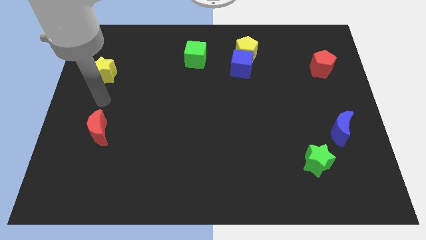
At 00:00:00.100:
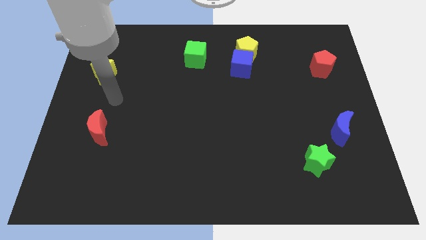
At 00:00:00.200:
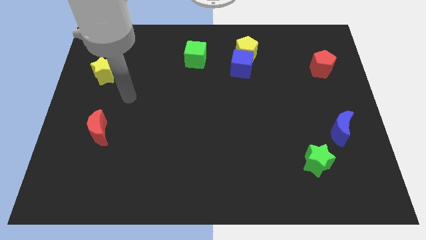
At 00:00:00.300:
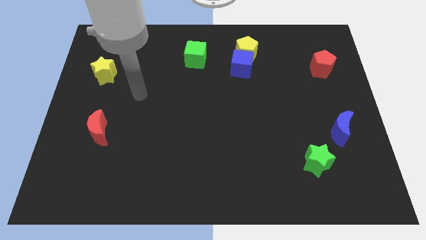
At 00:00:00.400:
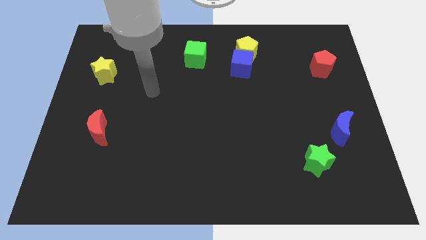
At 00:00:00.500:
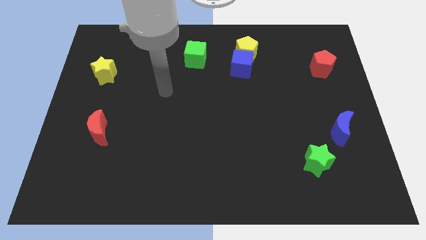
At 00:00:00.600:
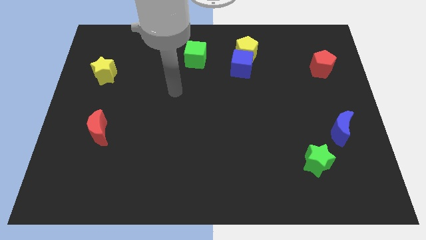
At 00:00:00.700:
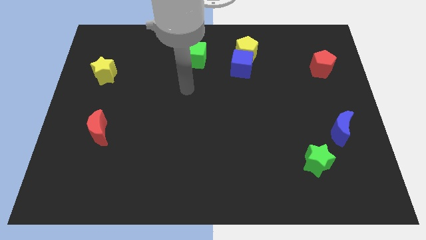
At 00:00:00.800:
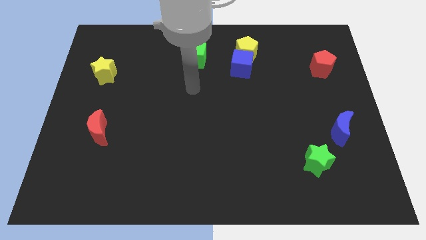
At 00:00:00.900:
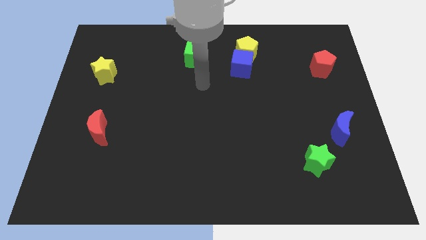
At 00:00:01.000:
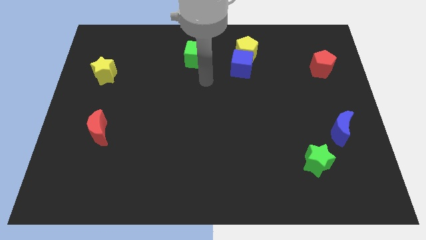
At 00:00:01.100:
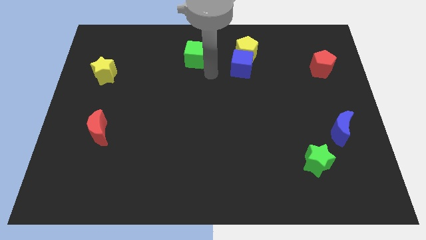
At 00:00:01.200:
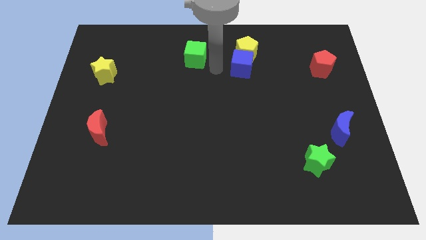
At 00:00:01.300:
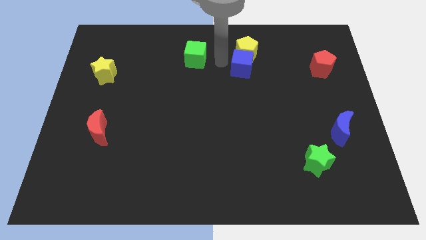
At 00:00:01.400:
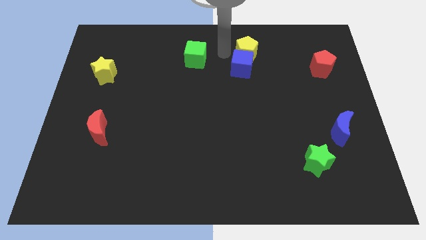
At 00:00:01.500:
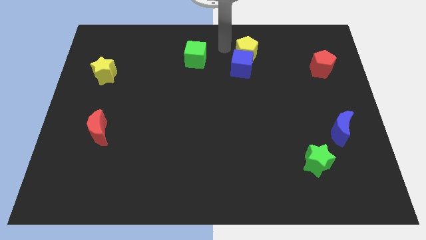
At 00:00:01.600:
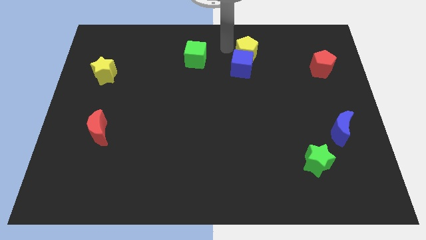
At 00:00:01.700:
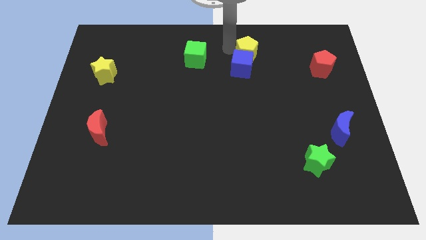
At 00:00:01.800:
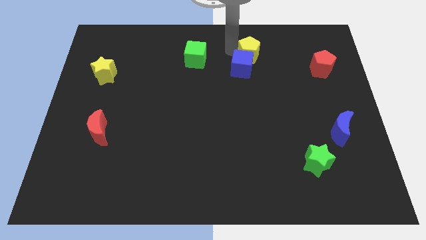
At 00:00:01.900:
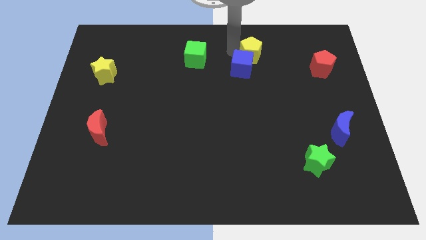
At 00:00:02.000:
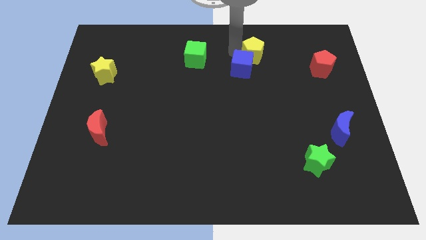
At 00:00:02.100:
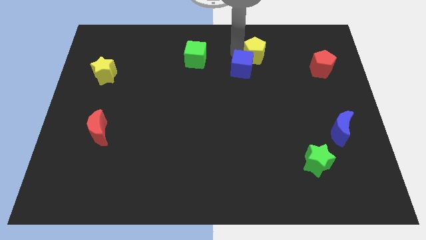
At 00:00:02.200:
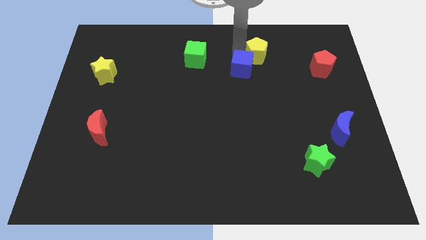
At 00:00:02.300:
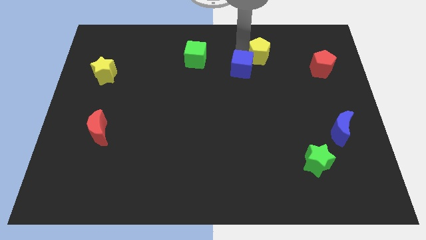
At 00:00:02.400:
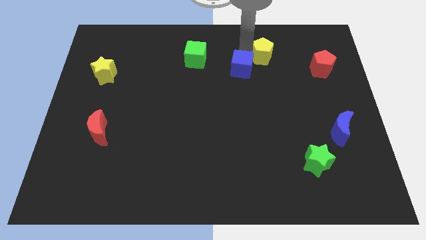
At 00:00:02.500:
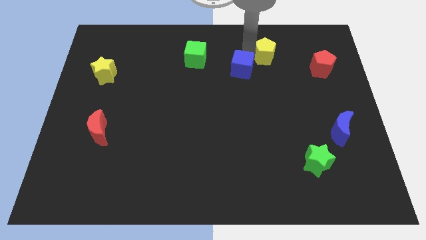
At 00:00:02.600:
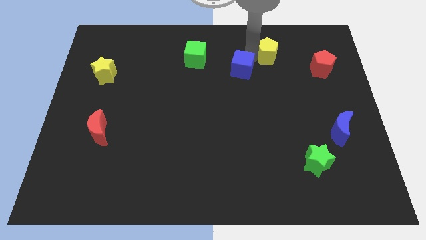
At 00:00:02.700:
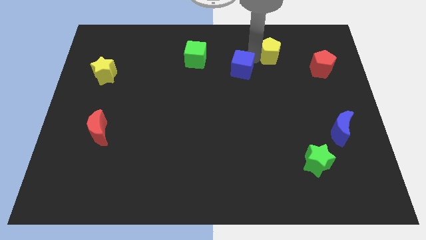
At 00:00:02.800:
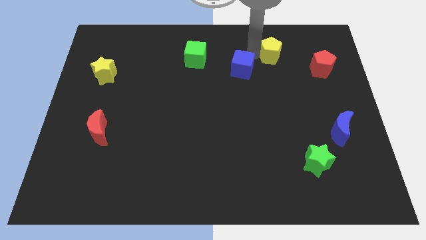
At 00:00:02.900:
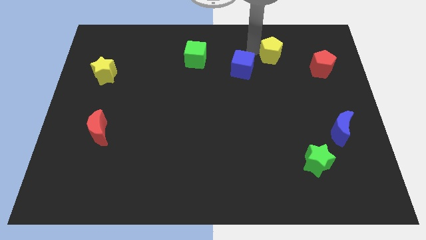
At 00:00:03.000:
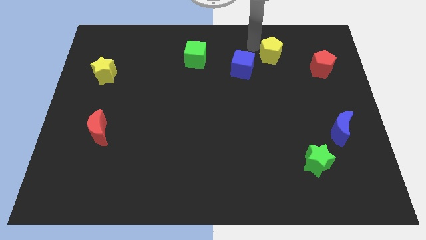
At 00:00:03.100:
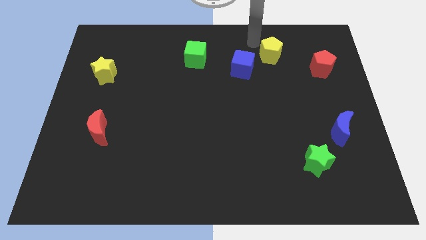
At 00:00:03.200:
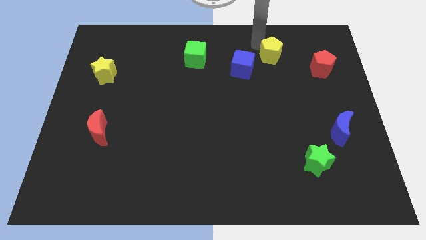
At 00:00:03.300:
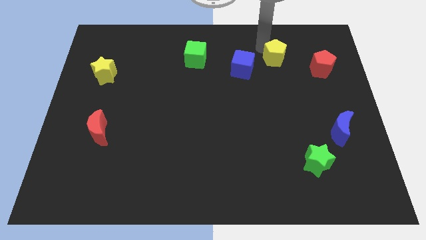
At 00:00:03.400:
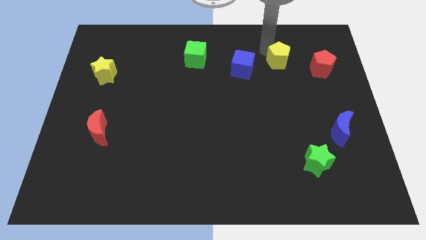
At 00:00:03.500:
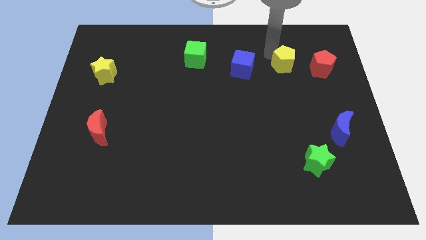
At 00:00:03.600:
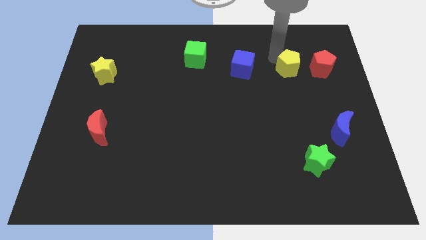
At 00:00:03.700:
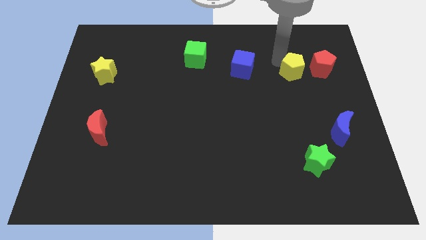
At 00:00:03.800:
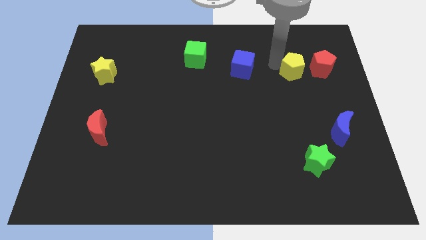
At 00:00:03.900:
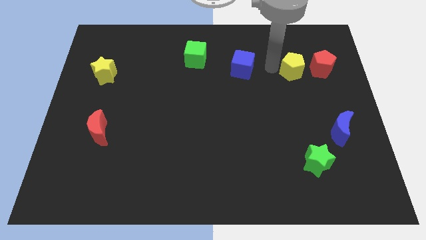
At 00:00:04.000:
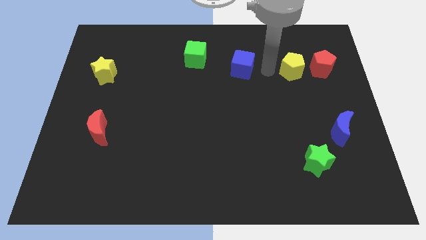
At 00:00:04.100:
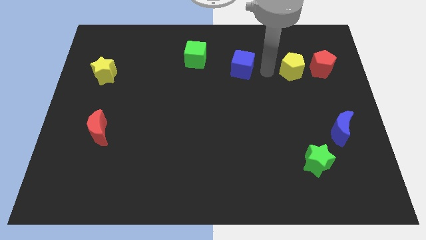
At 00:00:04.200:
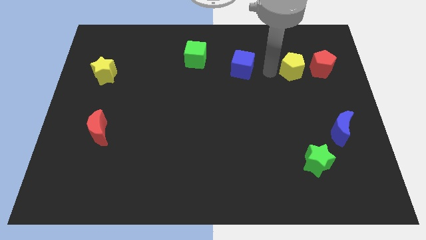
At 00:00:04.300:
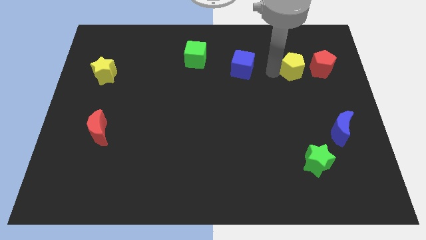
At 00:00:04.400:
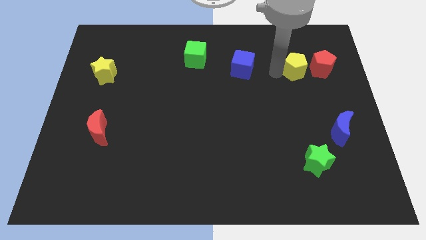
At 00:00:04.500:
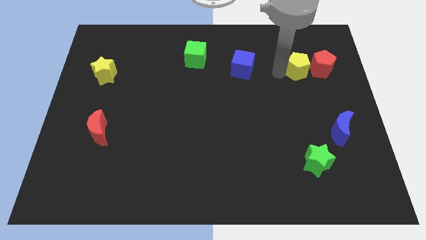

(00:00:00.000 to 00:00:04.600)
put the yellow pentagon to the red pentagon

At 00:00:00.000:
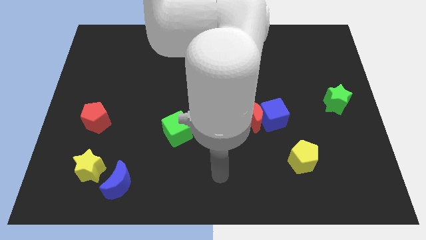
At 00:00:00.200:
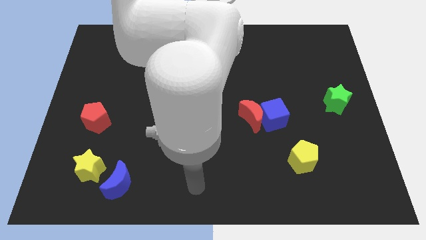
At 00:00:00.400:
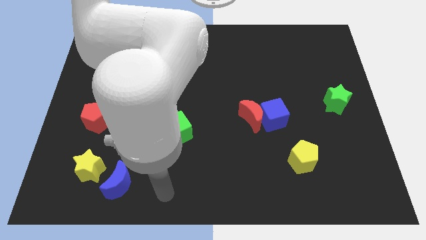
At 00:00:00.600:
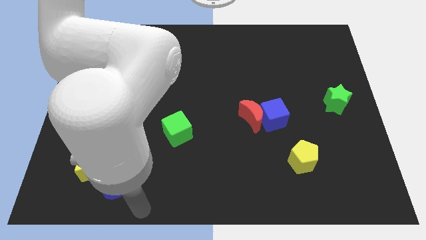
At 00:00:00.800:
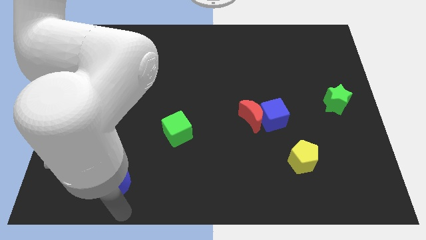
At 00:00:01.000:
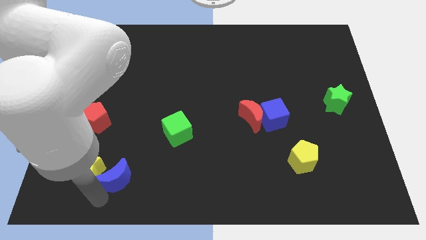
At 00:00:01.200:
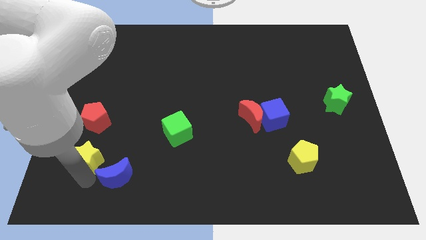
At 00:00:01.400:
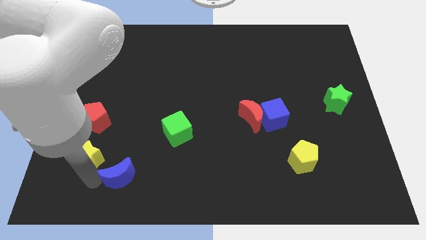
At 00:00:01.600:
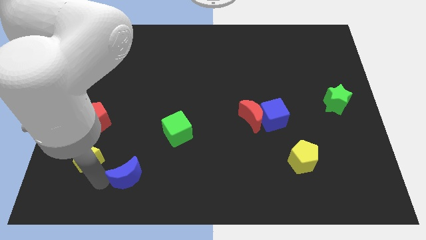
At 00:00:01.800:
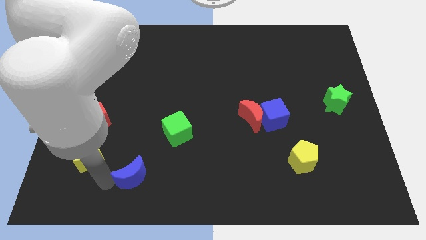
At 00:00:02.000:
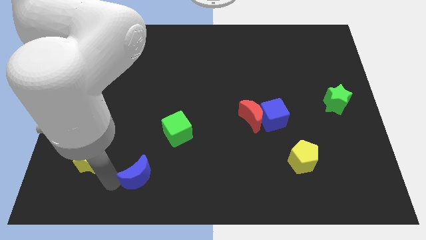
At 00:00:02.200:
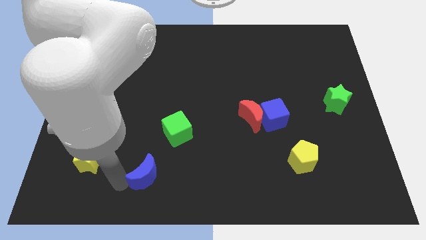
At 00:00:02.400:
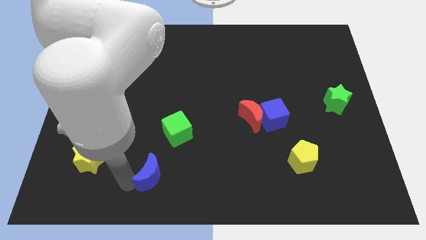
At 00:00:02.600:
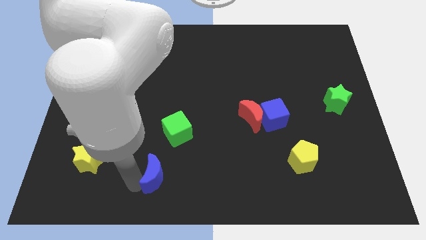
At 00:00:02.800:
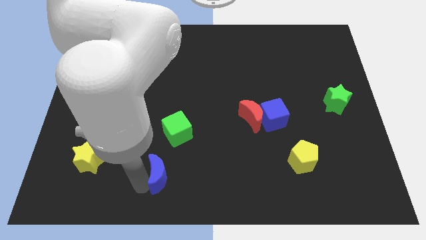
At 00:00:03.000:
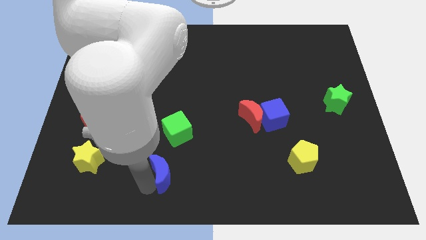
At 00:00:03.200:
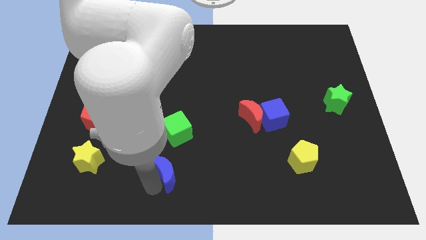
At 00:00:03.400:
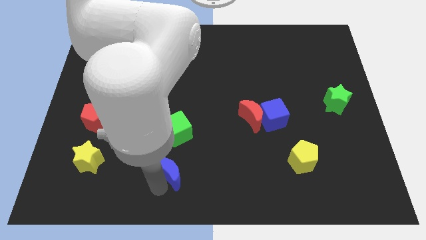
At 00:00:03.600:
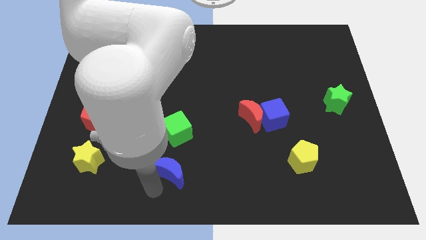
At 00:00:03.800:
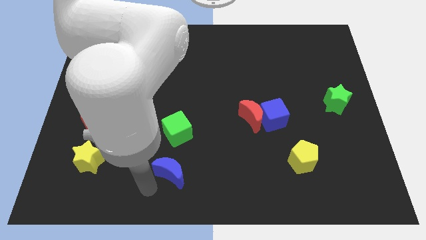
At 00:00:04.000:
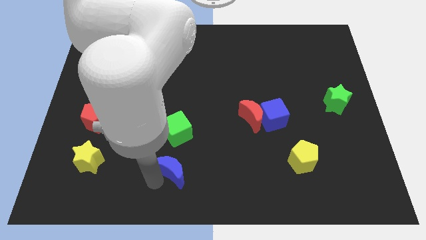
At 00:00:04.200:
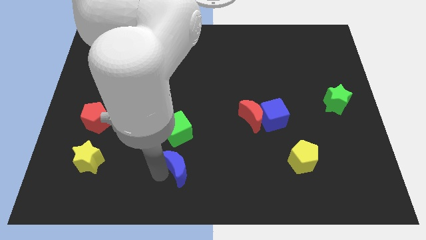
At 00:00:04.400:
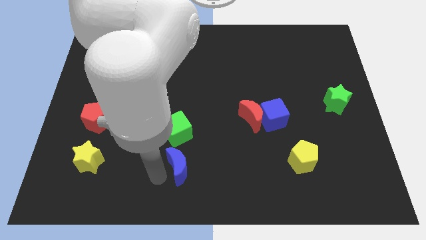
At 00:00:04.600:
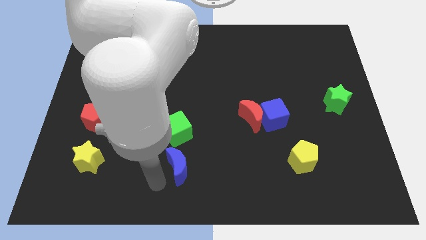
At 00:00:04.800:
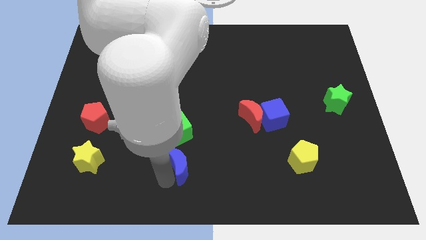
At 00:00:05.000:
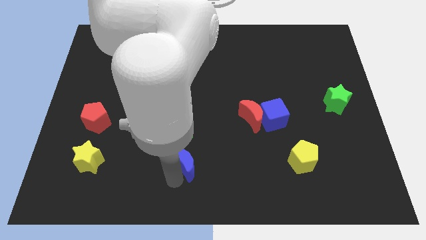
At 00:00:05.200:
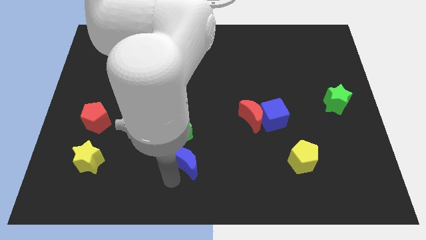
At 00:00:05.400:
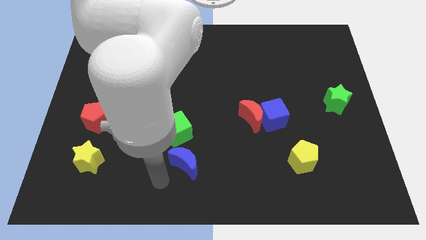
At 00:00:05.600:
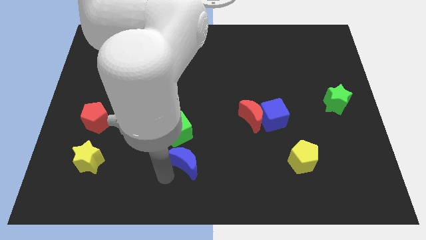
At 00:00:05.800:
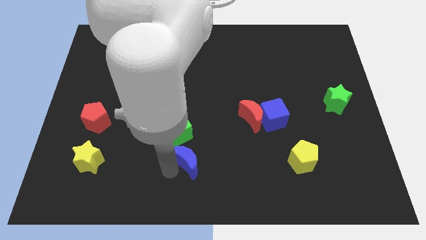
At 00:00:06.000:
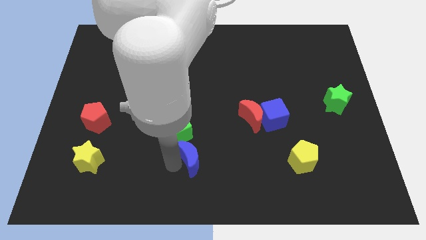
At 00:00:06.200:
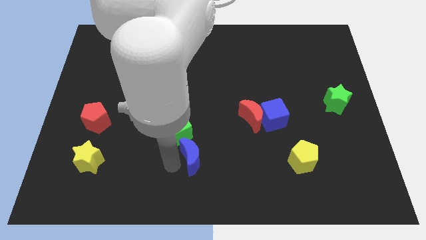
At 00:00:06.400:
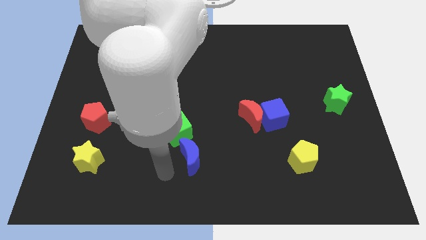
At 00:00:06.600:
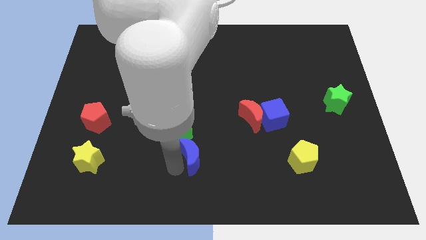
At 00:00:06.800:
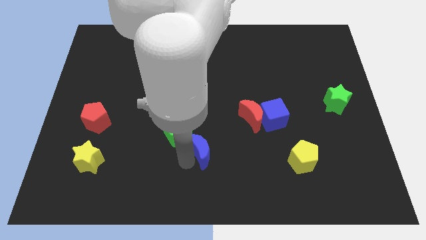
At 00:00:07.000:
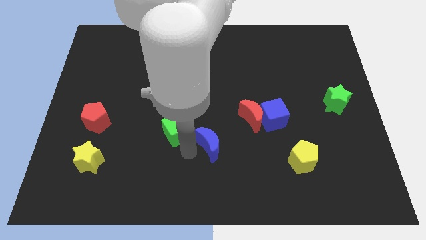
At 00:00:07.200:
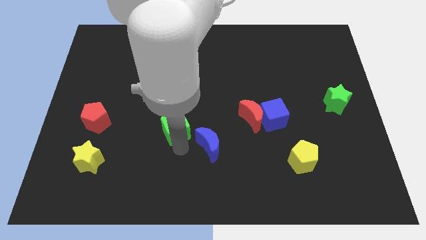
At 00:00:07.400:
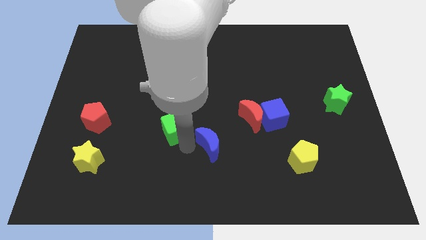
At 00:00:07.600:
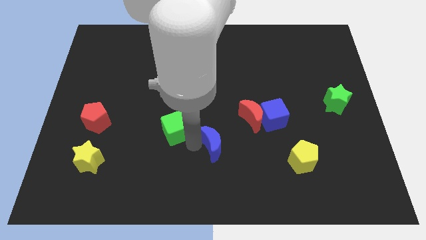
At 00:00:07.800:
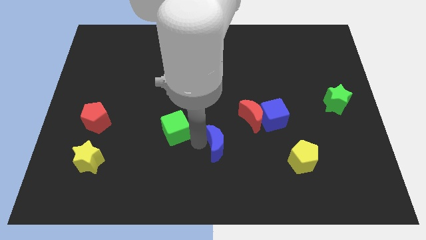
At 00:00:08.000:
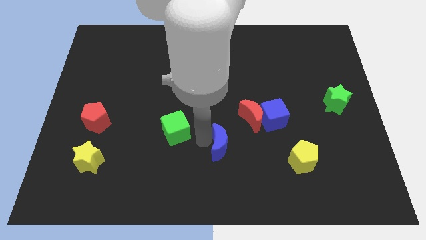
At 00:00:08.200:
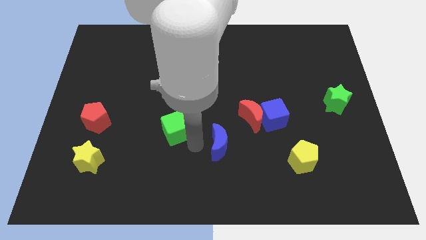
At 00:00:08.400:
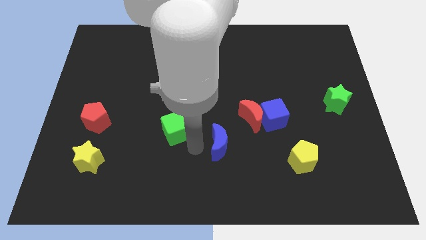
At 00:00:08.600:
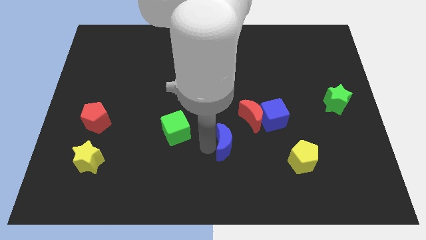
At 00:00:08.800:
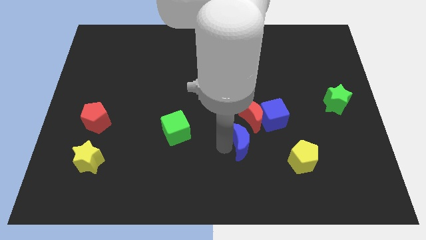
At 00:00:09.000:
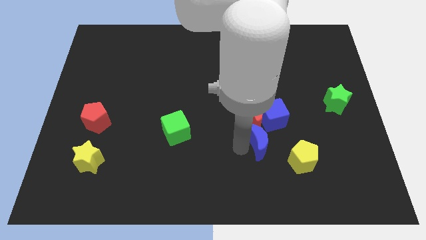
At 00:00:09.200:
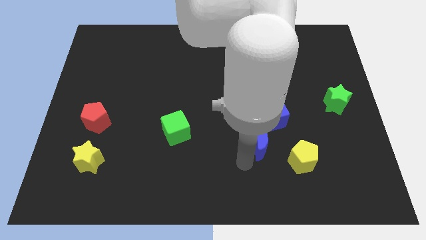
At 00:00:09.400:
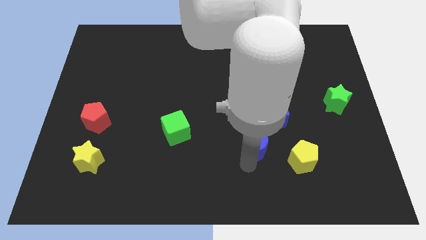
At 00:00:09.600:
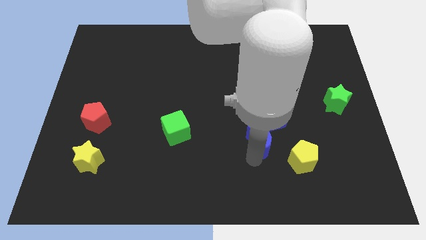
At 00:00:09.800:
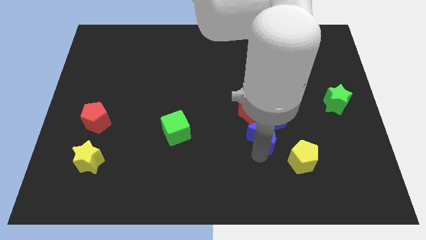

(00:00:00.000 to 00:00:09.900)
put the blue moon next to the blue cube
